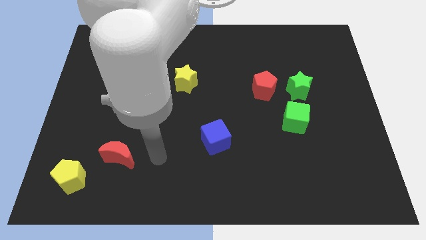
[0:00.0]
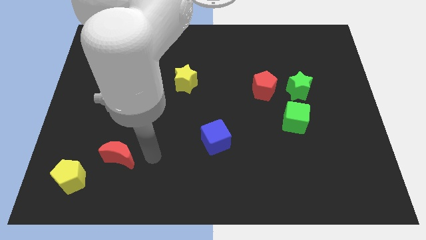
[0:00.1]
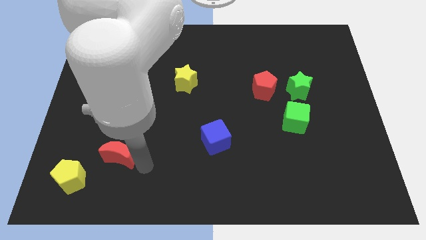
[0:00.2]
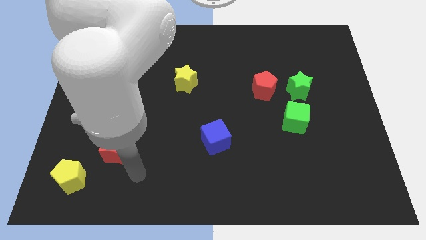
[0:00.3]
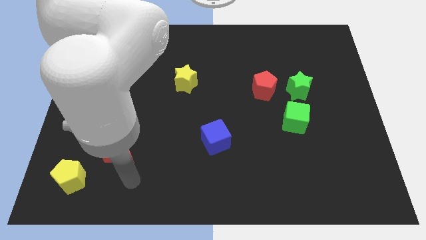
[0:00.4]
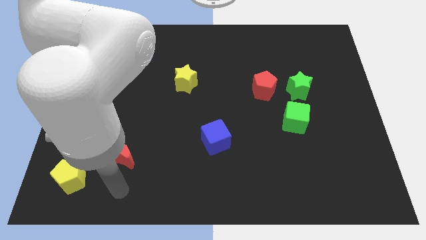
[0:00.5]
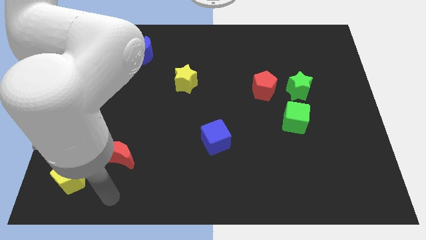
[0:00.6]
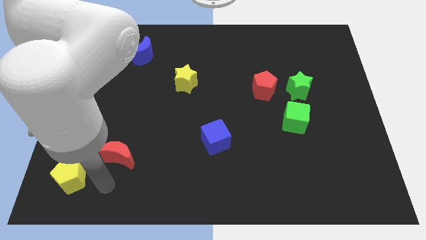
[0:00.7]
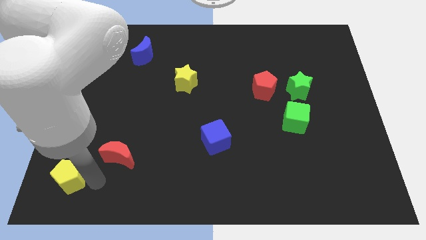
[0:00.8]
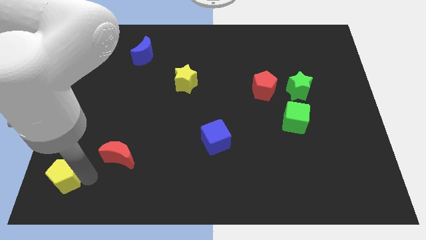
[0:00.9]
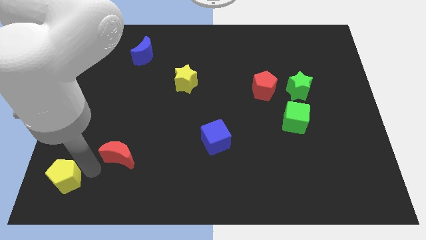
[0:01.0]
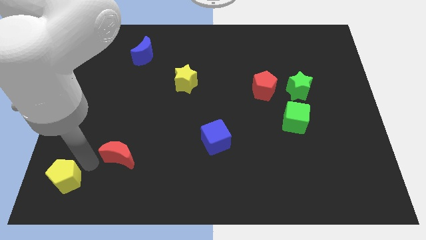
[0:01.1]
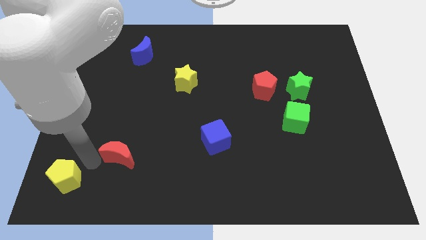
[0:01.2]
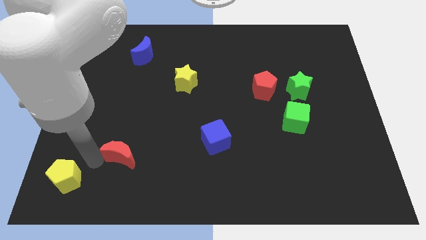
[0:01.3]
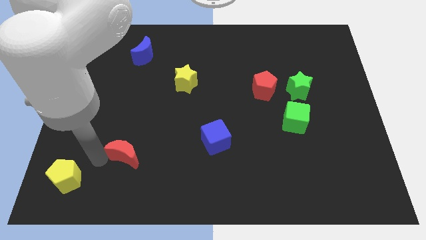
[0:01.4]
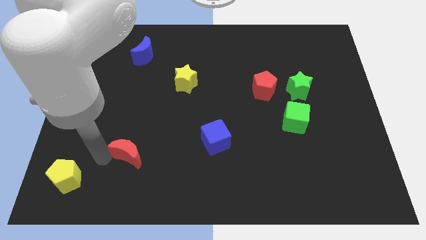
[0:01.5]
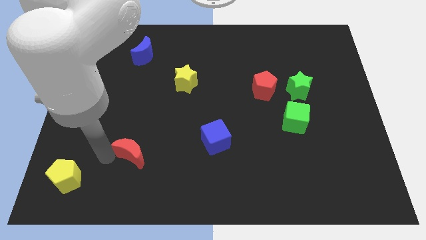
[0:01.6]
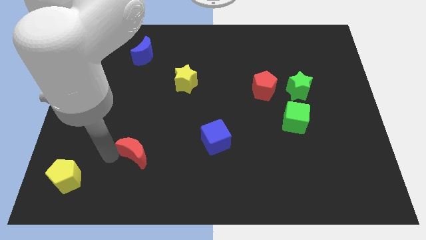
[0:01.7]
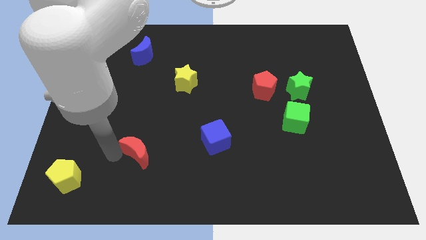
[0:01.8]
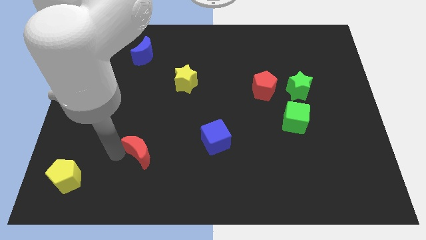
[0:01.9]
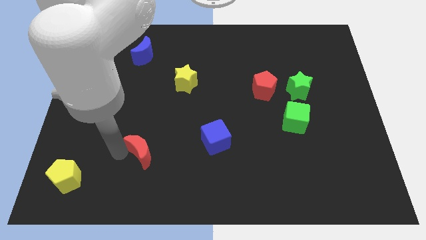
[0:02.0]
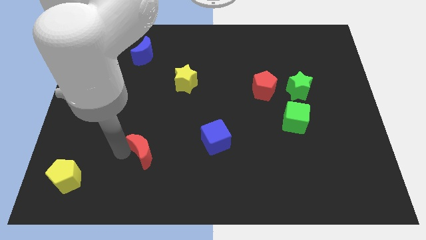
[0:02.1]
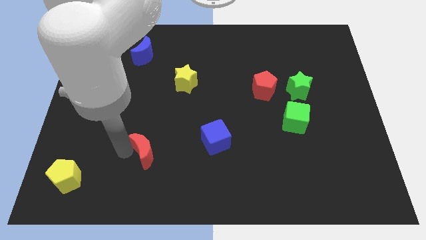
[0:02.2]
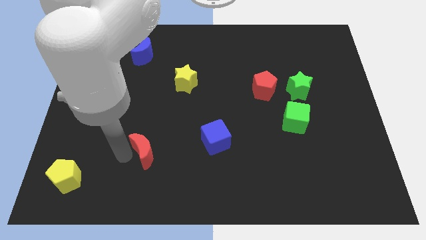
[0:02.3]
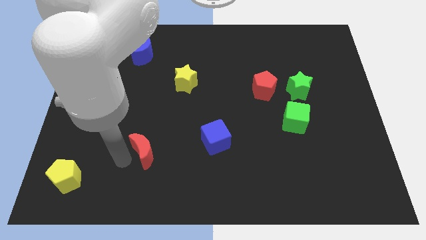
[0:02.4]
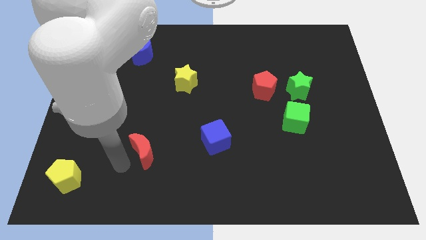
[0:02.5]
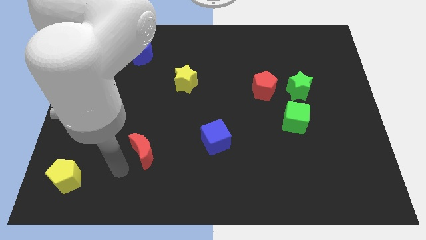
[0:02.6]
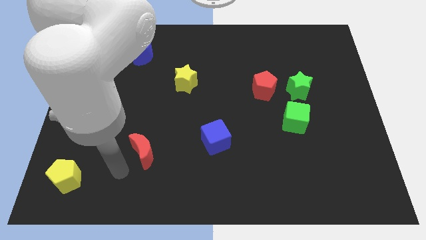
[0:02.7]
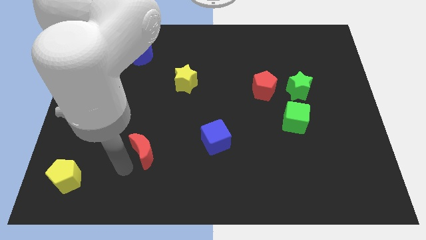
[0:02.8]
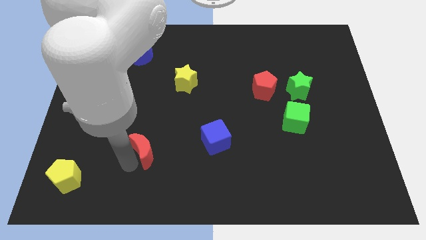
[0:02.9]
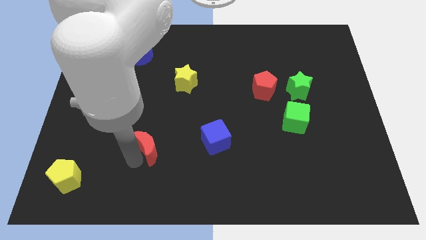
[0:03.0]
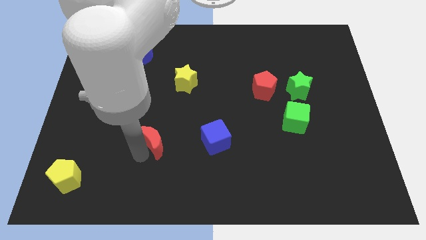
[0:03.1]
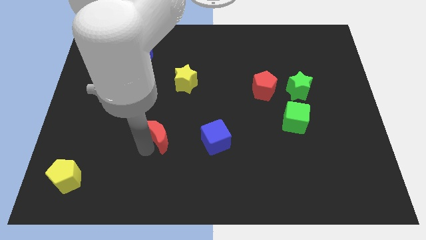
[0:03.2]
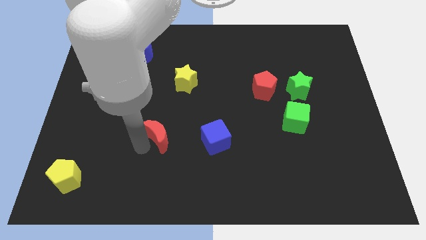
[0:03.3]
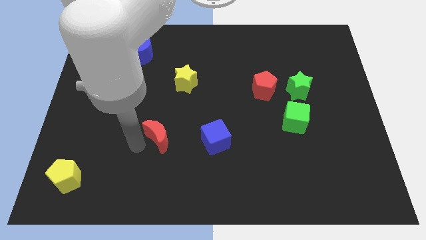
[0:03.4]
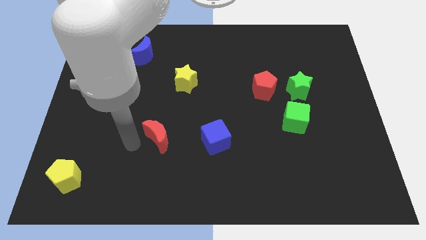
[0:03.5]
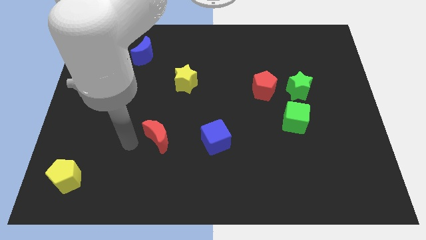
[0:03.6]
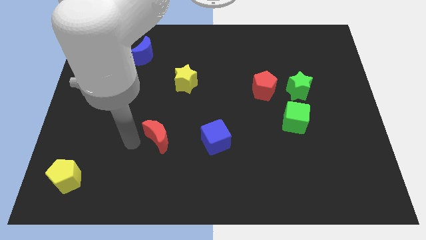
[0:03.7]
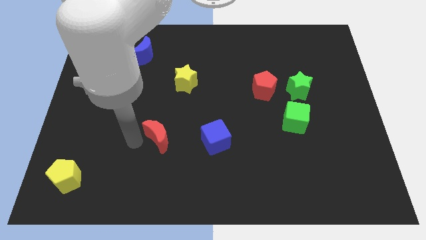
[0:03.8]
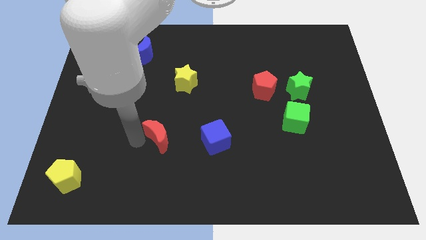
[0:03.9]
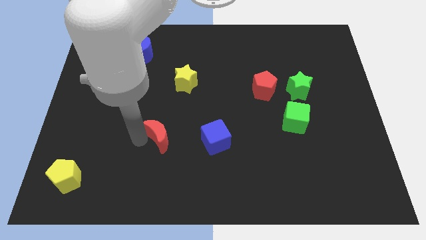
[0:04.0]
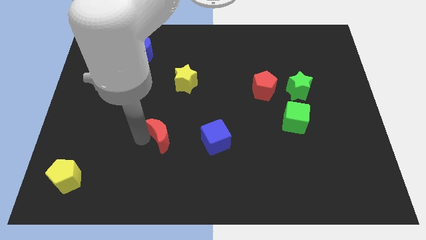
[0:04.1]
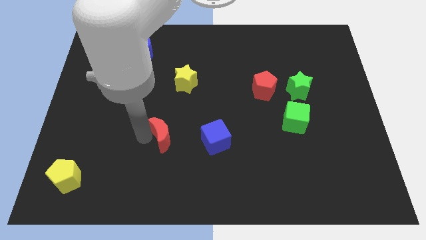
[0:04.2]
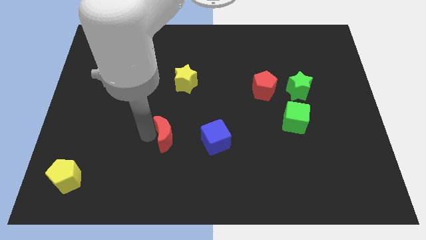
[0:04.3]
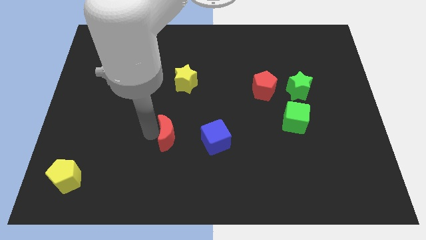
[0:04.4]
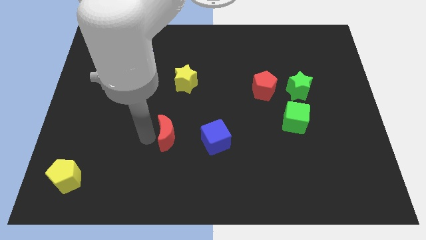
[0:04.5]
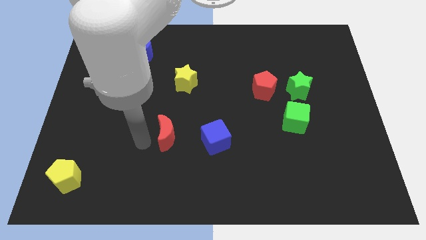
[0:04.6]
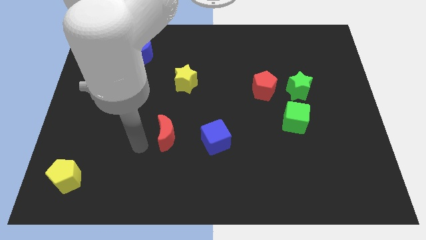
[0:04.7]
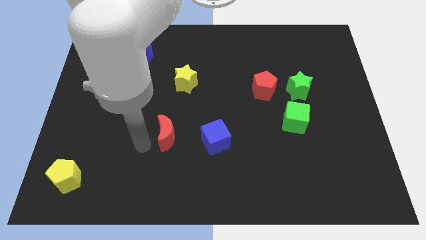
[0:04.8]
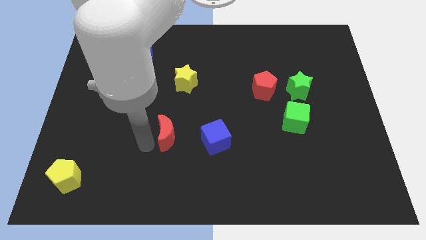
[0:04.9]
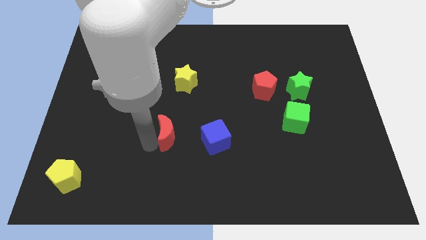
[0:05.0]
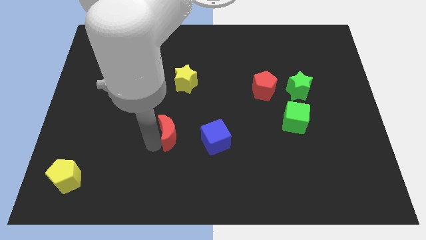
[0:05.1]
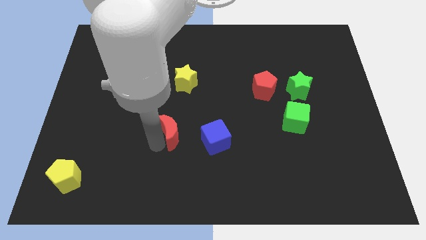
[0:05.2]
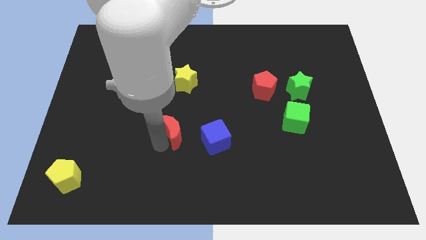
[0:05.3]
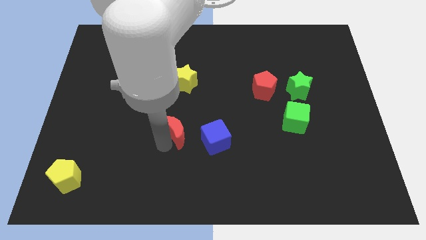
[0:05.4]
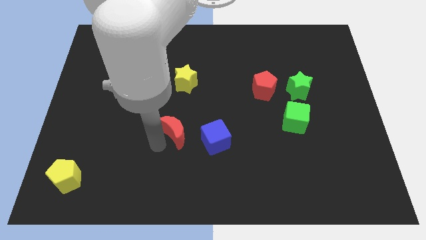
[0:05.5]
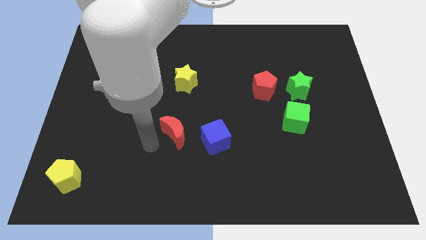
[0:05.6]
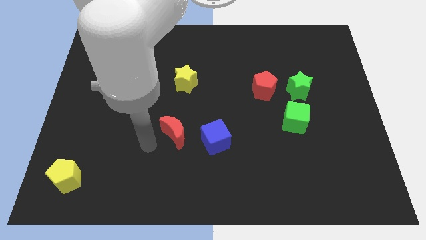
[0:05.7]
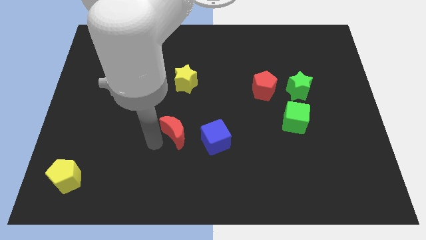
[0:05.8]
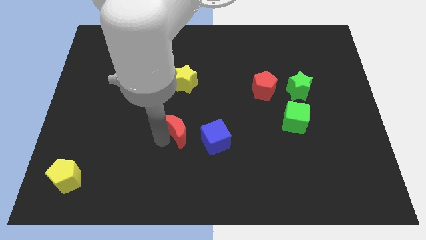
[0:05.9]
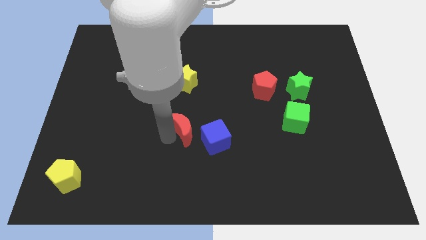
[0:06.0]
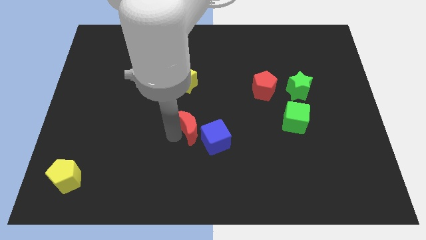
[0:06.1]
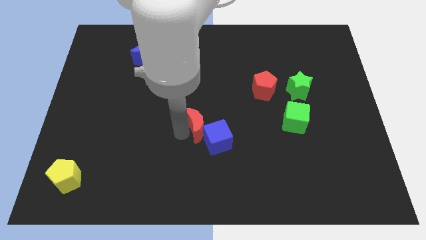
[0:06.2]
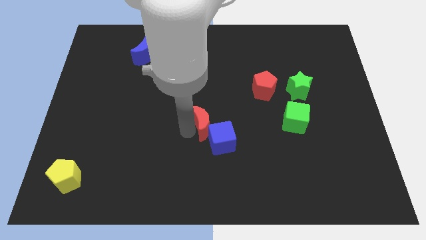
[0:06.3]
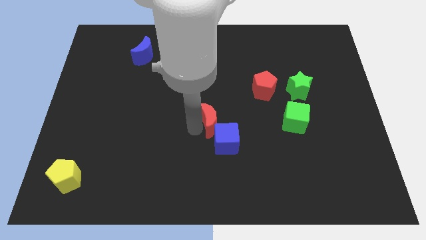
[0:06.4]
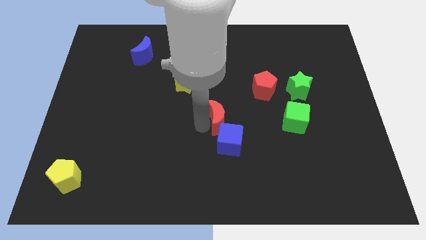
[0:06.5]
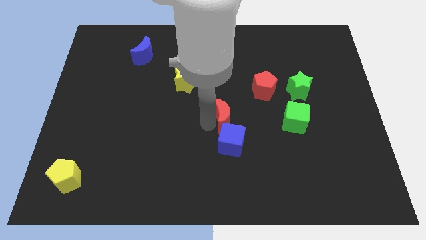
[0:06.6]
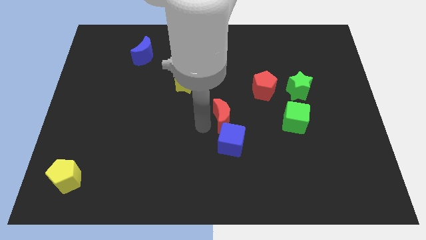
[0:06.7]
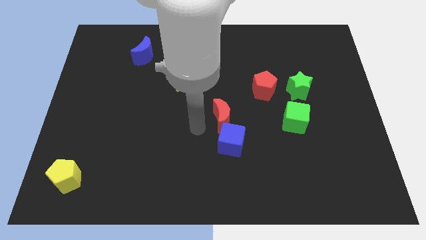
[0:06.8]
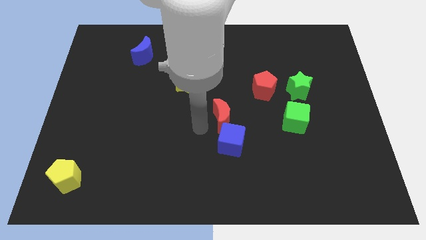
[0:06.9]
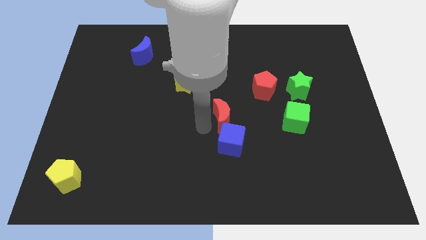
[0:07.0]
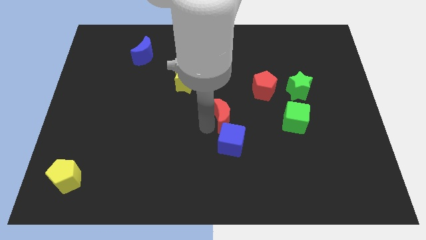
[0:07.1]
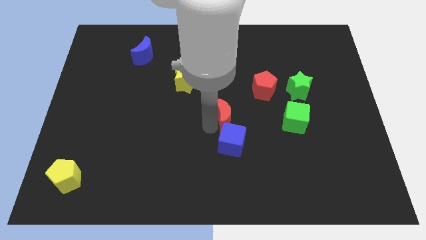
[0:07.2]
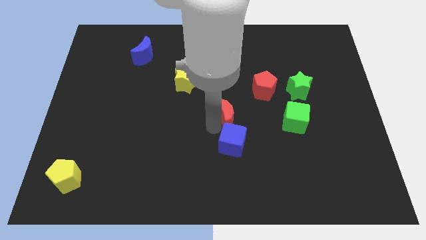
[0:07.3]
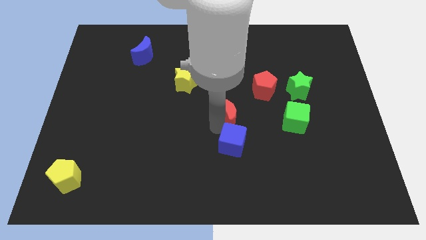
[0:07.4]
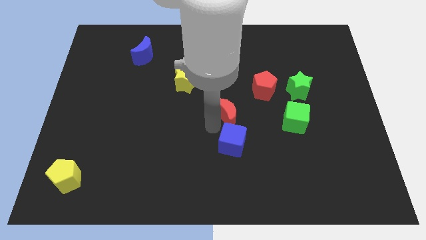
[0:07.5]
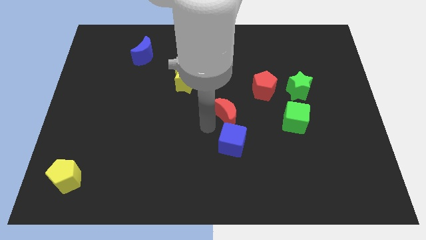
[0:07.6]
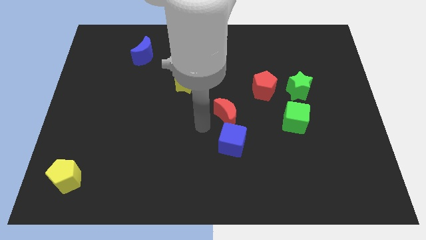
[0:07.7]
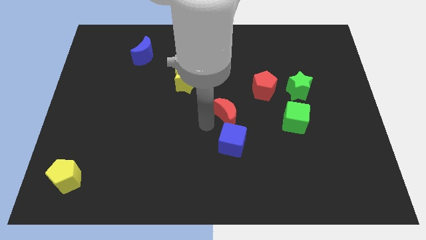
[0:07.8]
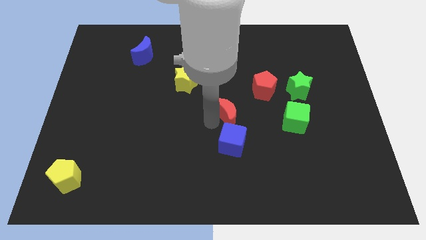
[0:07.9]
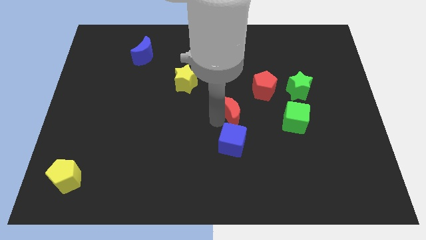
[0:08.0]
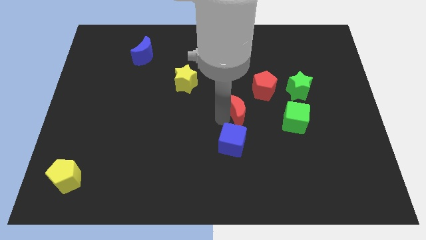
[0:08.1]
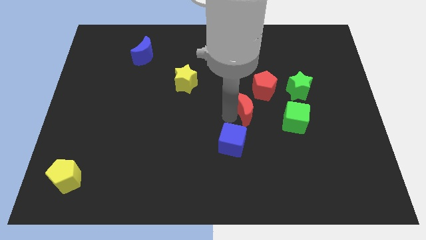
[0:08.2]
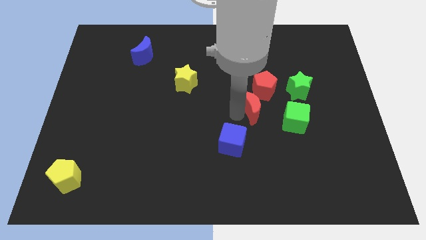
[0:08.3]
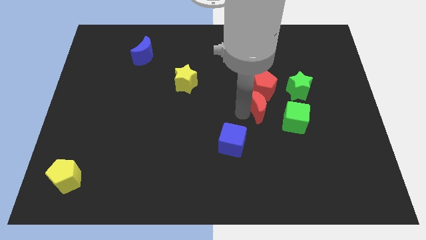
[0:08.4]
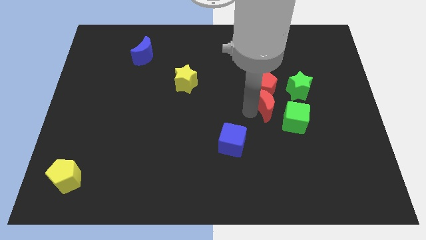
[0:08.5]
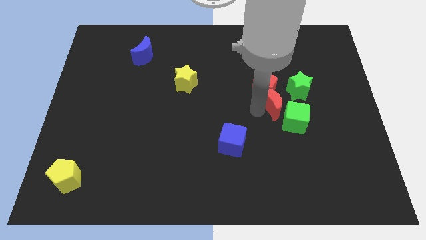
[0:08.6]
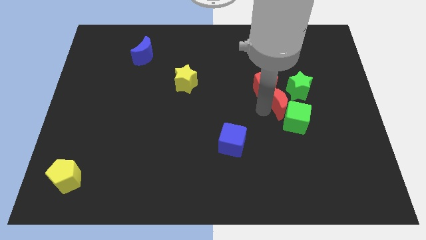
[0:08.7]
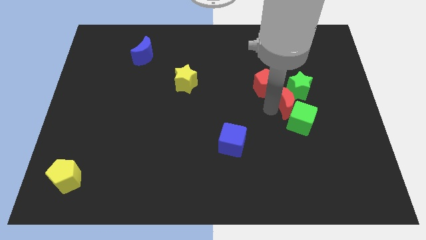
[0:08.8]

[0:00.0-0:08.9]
move the red moon close to the green star
